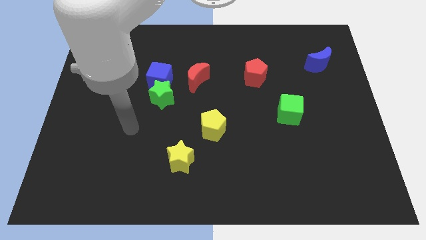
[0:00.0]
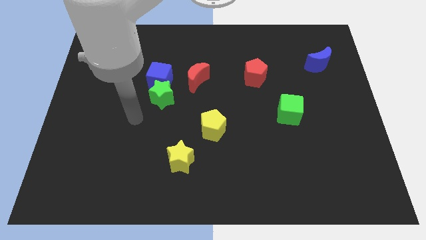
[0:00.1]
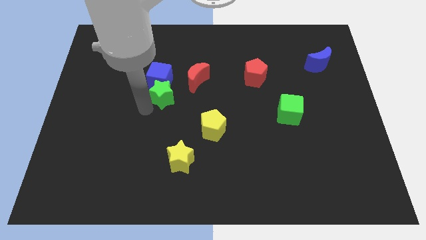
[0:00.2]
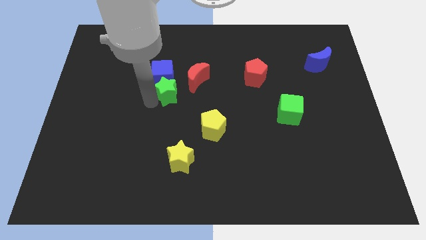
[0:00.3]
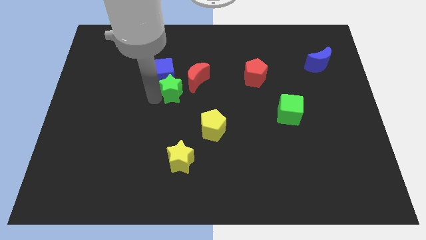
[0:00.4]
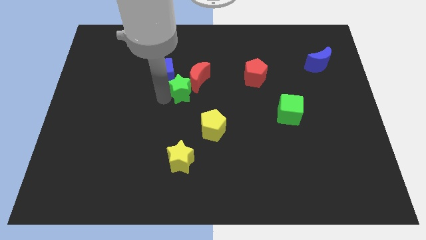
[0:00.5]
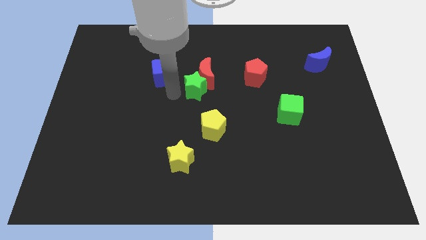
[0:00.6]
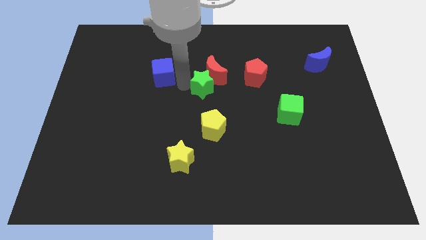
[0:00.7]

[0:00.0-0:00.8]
separate the blue cube from the green star and red moon

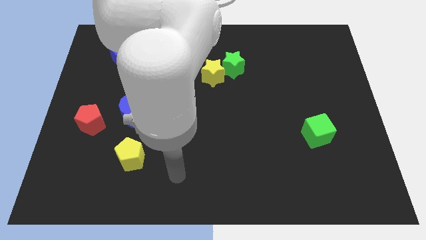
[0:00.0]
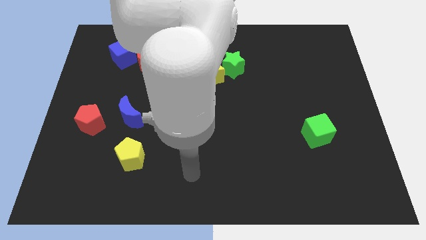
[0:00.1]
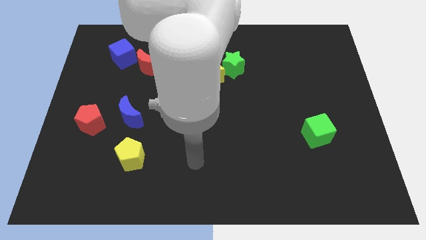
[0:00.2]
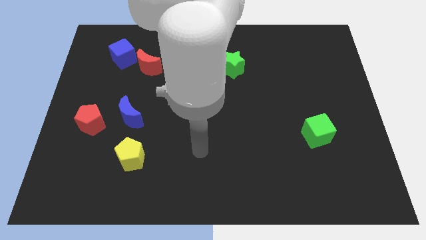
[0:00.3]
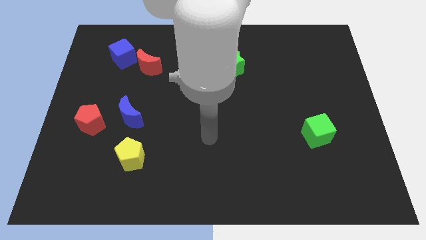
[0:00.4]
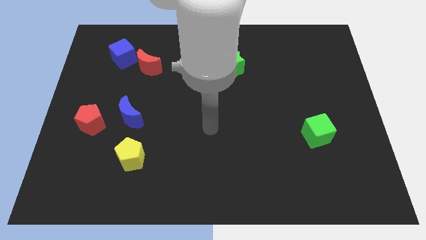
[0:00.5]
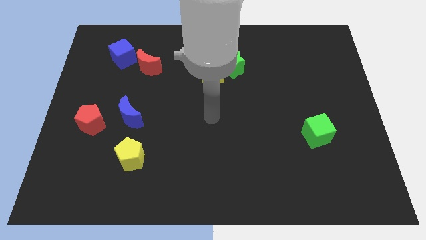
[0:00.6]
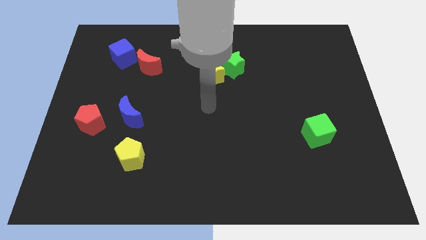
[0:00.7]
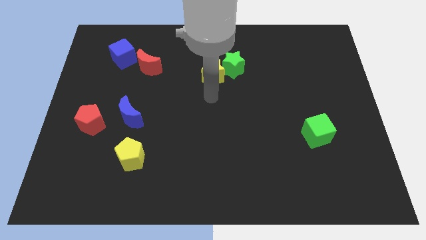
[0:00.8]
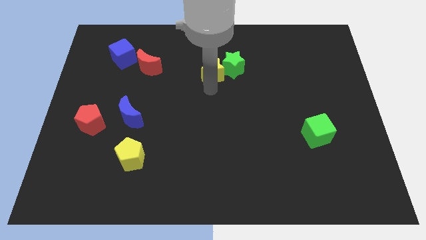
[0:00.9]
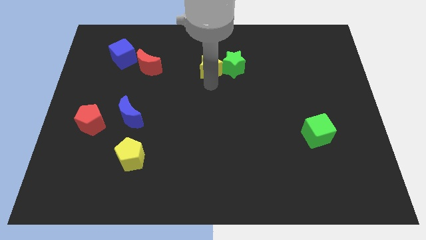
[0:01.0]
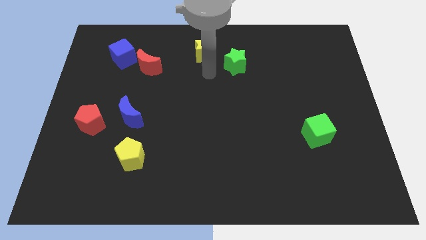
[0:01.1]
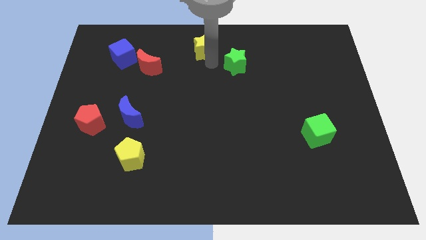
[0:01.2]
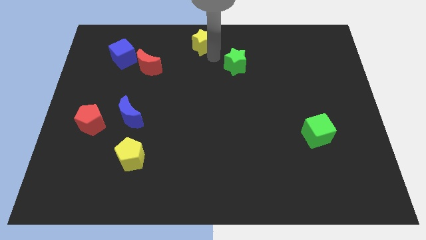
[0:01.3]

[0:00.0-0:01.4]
pull the green star apart from the yellow star

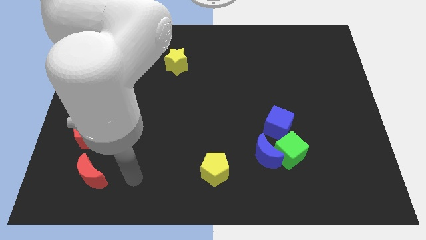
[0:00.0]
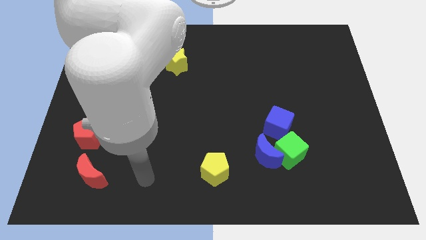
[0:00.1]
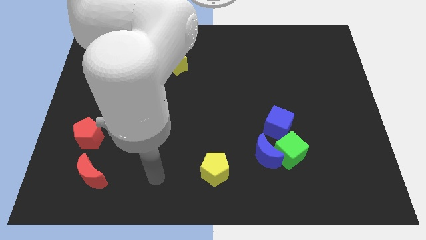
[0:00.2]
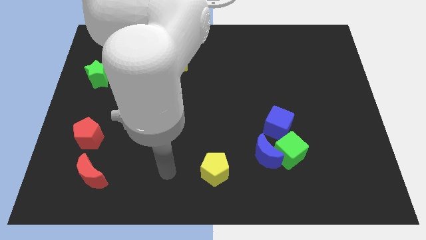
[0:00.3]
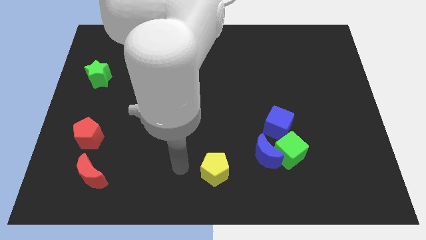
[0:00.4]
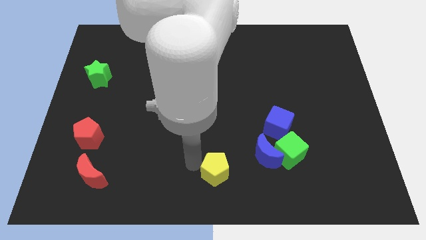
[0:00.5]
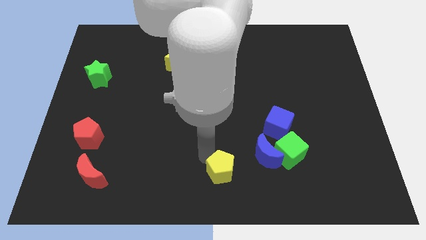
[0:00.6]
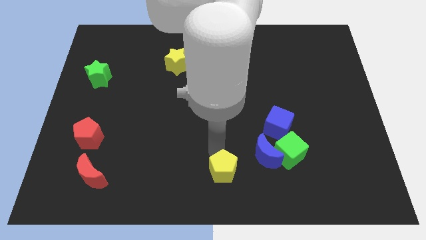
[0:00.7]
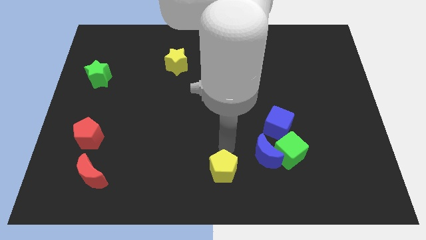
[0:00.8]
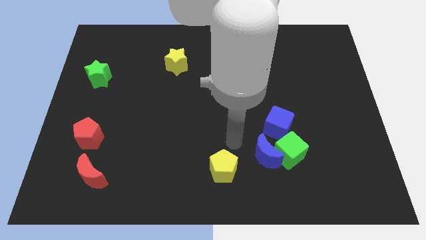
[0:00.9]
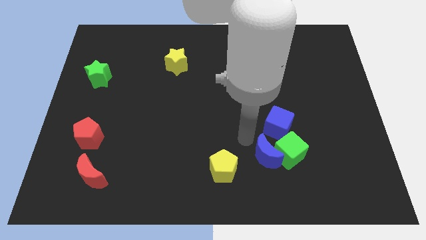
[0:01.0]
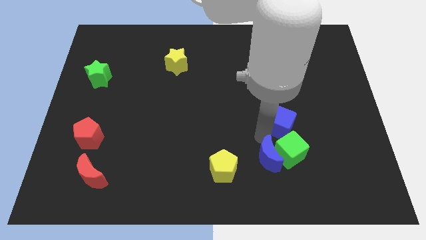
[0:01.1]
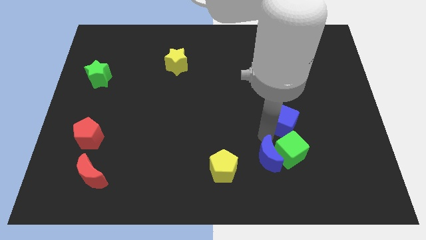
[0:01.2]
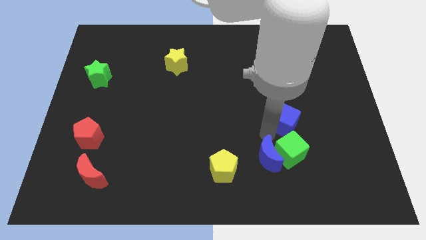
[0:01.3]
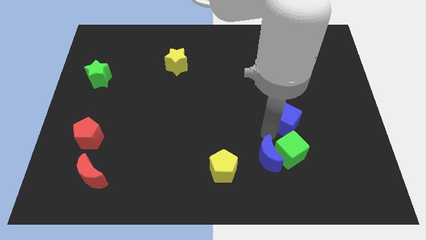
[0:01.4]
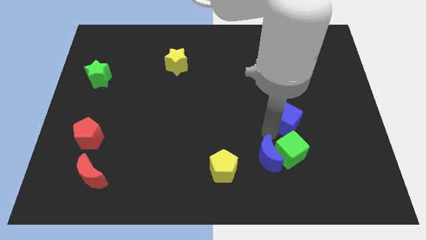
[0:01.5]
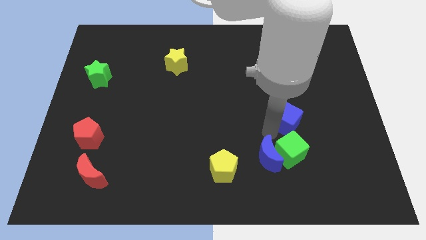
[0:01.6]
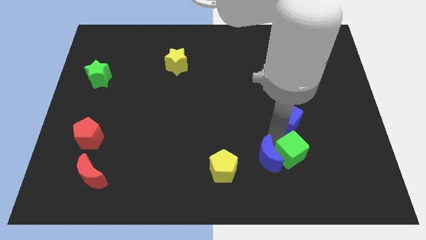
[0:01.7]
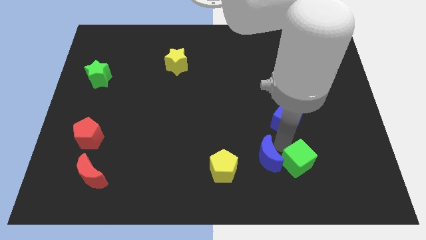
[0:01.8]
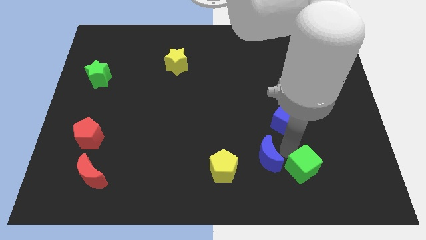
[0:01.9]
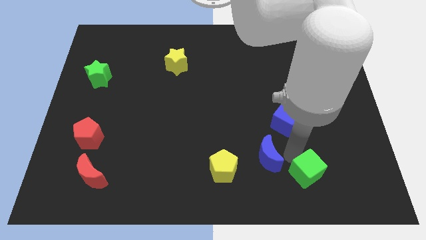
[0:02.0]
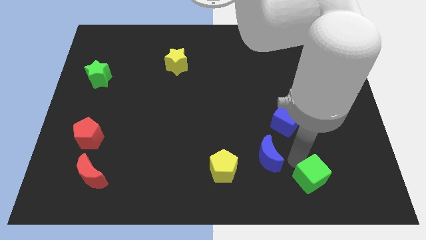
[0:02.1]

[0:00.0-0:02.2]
move the green cube away from the blue moon and blue cube

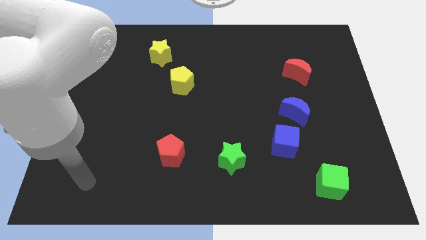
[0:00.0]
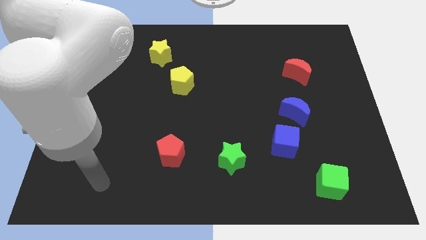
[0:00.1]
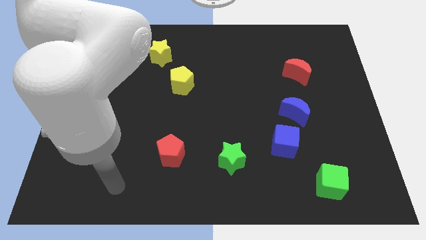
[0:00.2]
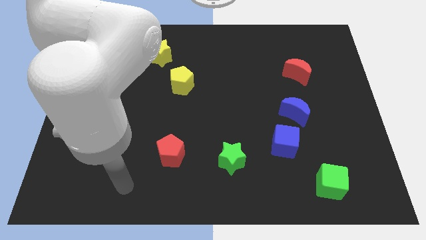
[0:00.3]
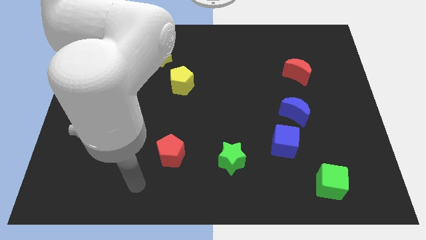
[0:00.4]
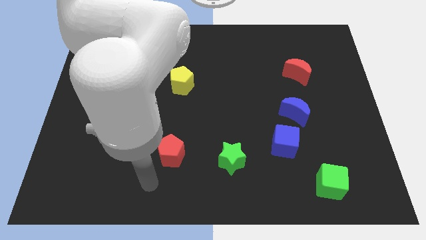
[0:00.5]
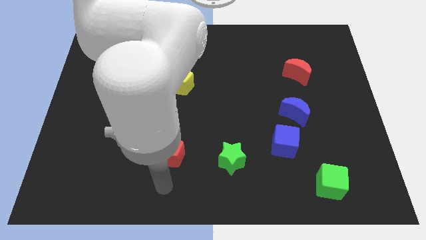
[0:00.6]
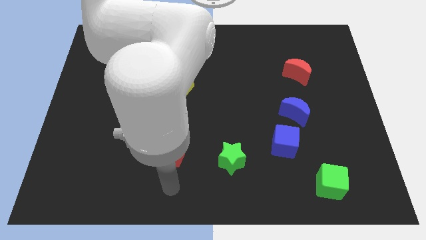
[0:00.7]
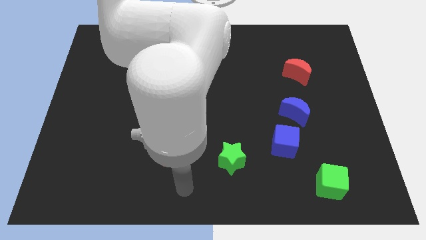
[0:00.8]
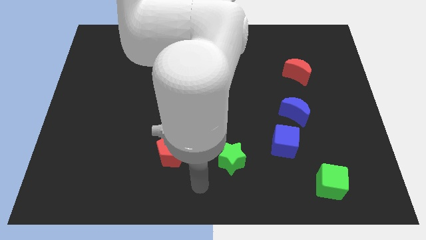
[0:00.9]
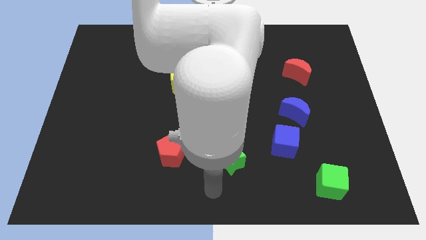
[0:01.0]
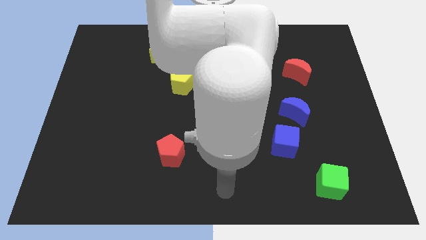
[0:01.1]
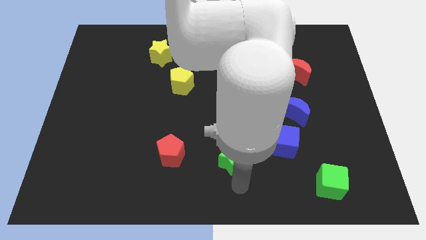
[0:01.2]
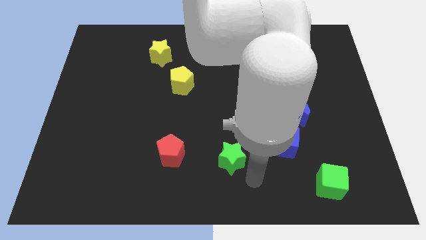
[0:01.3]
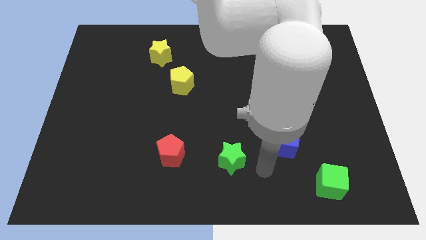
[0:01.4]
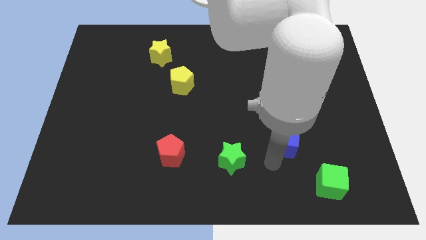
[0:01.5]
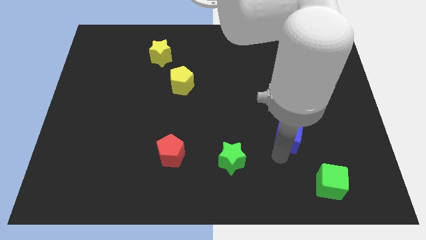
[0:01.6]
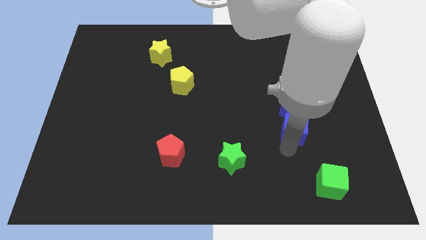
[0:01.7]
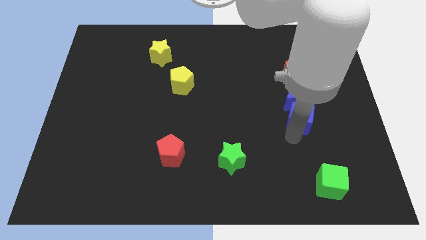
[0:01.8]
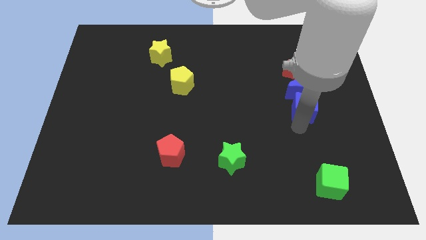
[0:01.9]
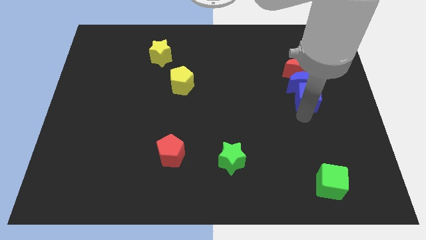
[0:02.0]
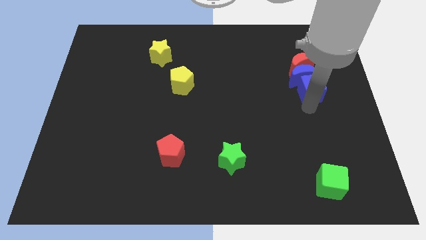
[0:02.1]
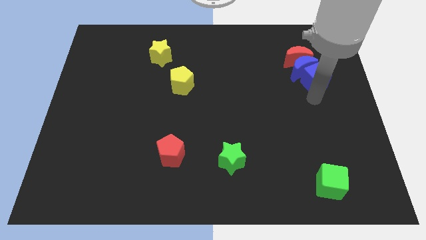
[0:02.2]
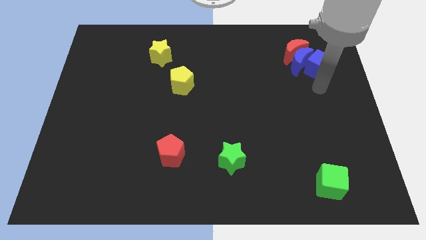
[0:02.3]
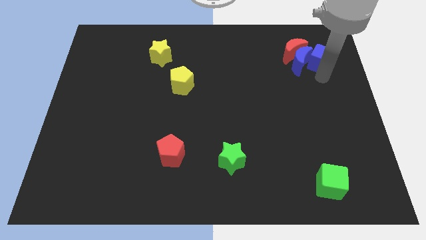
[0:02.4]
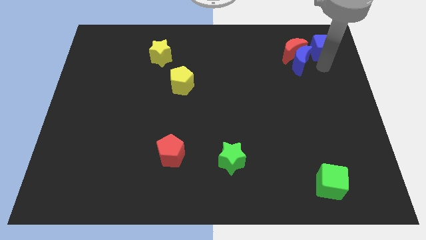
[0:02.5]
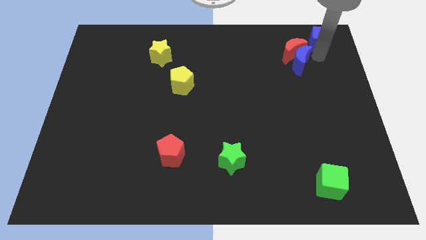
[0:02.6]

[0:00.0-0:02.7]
move the blue moon away from the blue cube

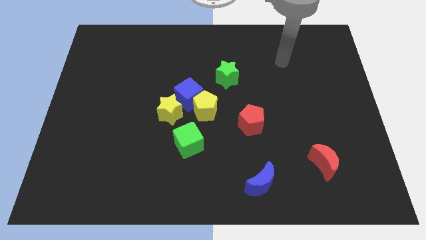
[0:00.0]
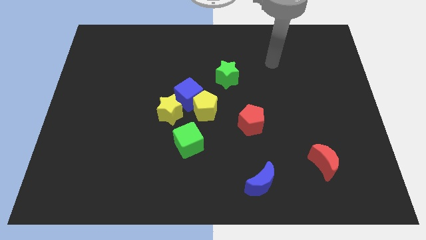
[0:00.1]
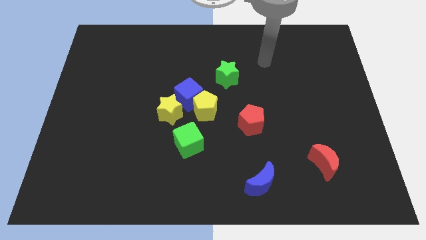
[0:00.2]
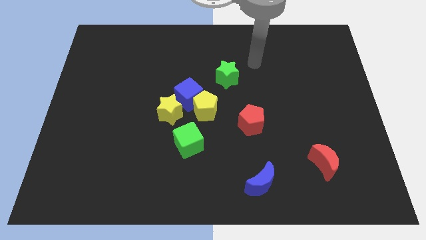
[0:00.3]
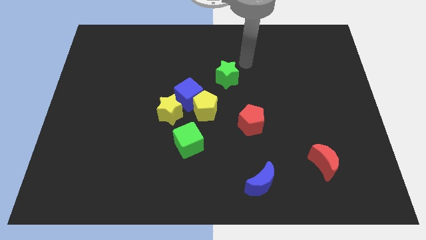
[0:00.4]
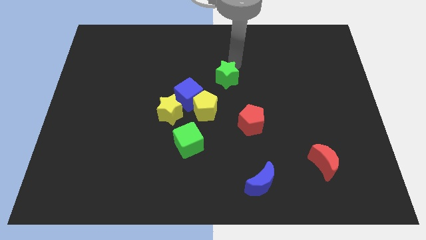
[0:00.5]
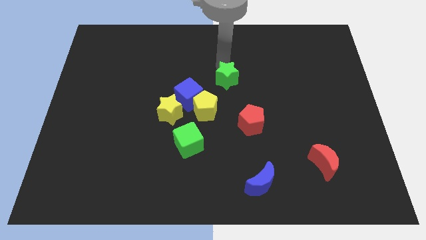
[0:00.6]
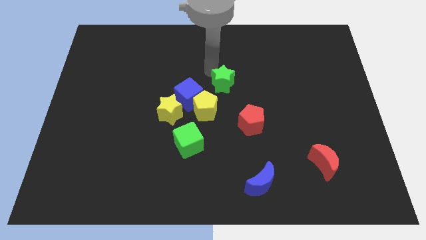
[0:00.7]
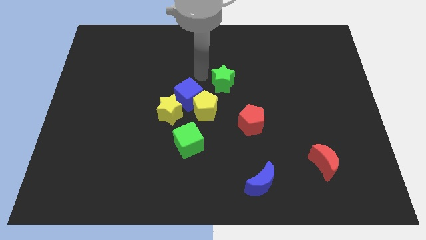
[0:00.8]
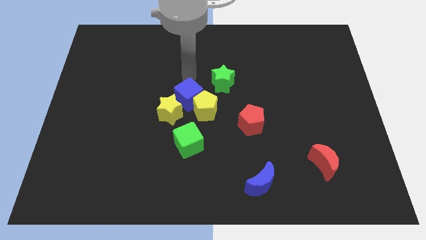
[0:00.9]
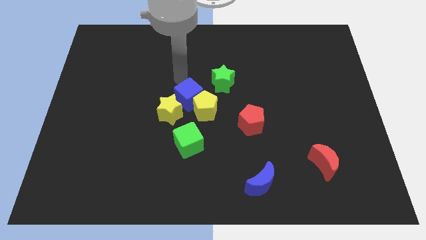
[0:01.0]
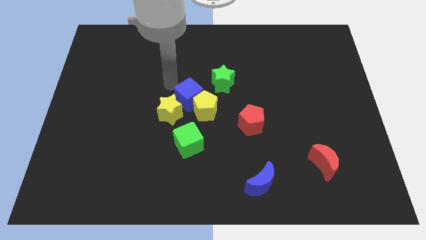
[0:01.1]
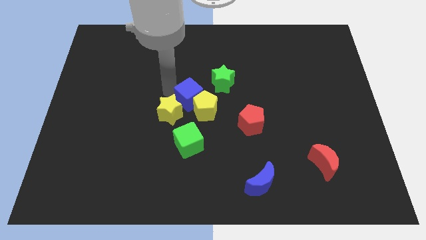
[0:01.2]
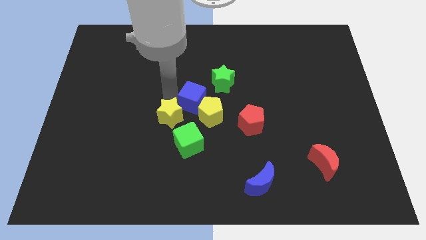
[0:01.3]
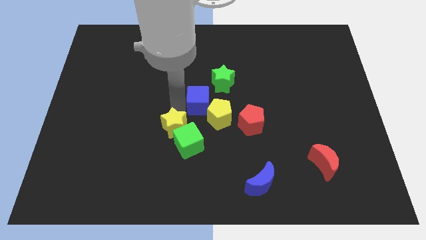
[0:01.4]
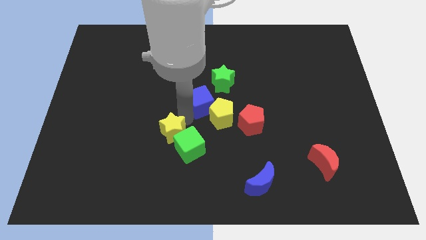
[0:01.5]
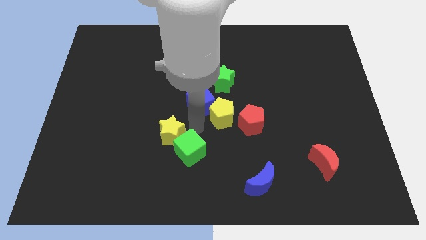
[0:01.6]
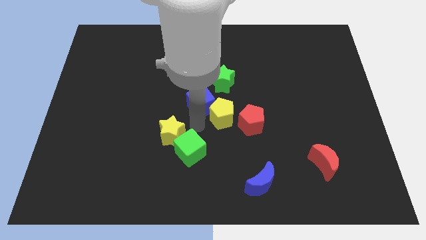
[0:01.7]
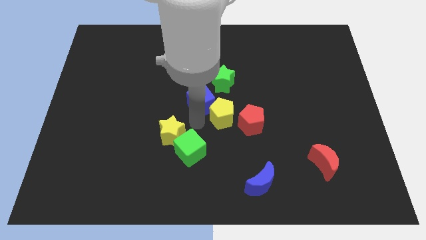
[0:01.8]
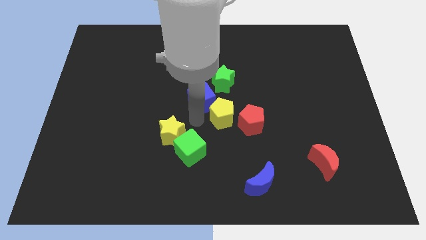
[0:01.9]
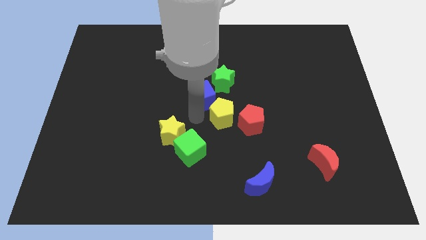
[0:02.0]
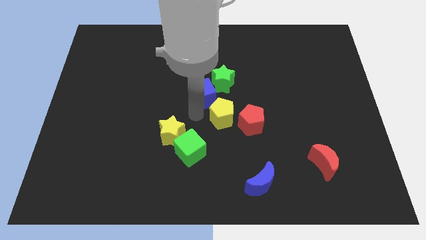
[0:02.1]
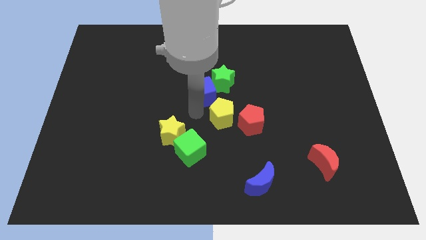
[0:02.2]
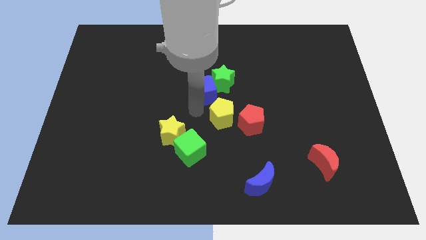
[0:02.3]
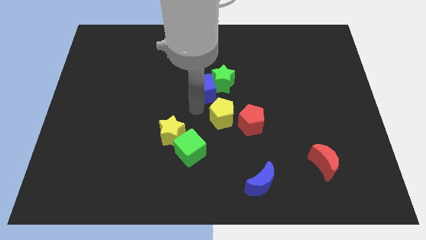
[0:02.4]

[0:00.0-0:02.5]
move the blue cube away from the yellow pentagon and yellow star
